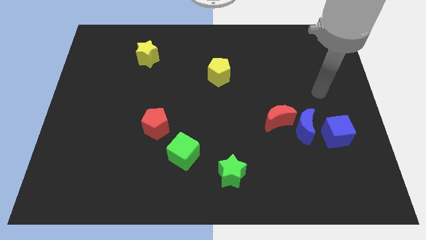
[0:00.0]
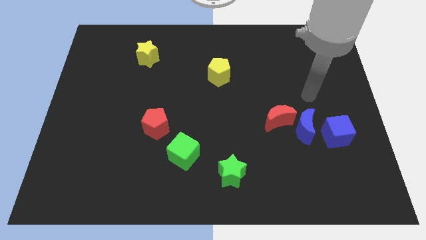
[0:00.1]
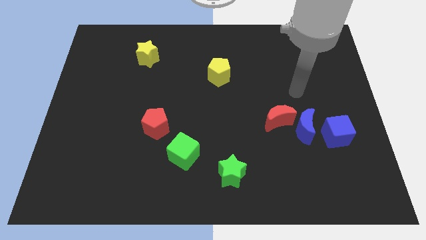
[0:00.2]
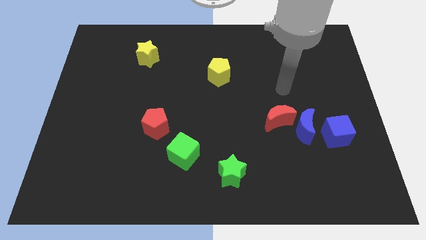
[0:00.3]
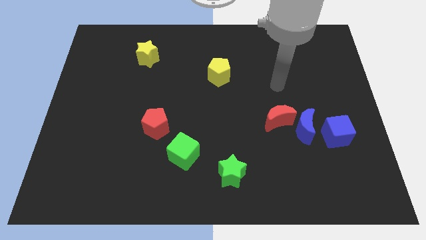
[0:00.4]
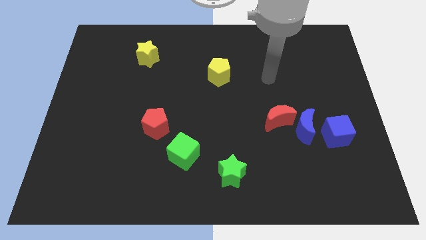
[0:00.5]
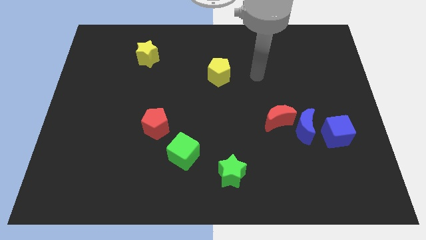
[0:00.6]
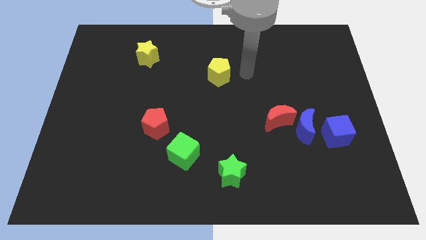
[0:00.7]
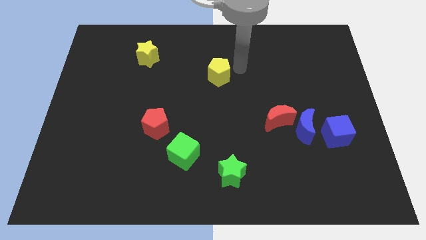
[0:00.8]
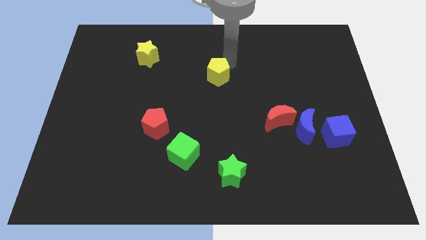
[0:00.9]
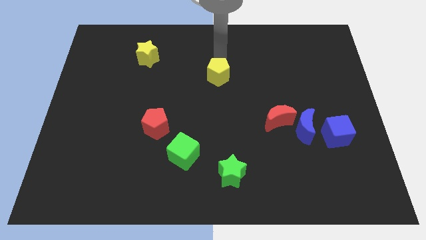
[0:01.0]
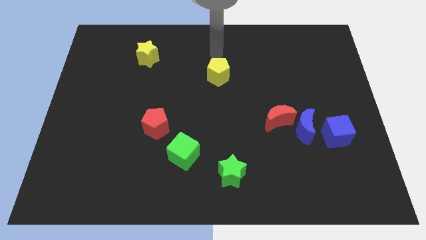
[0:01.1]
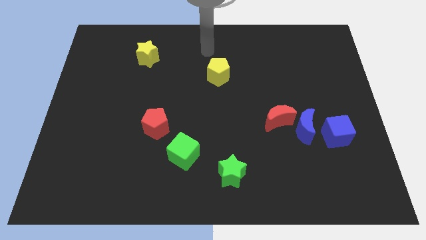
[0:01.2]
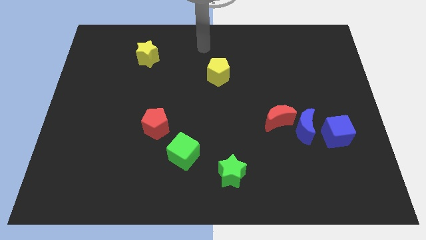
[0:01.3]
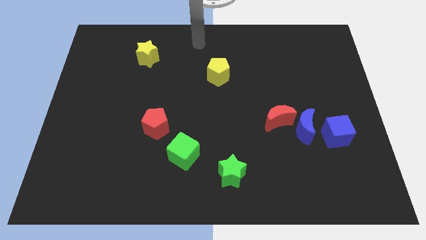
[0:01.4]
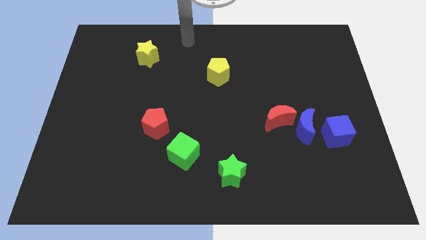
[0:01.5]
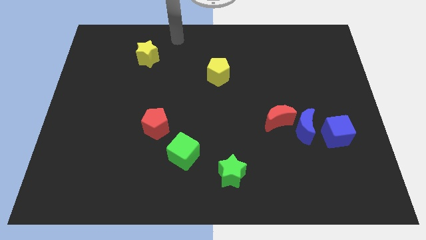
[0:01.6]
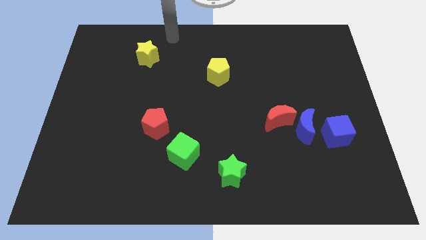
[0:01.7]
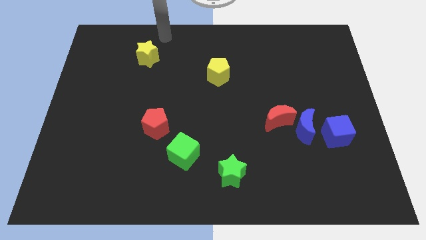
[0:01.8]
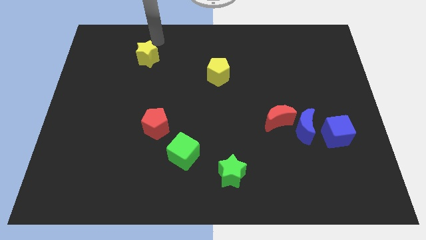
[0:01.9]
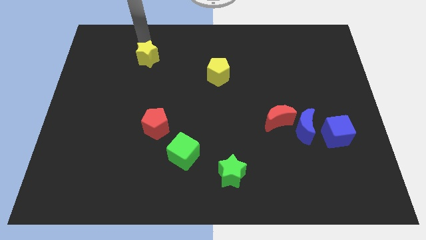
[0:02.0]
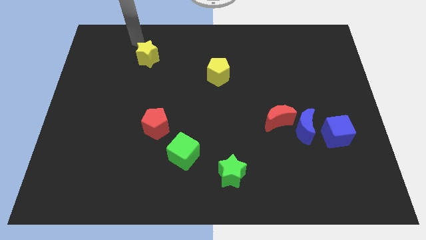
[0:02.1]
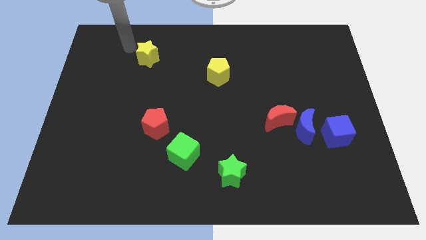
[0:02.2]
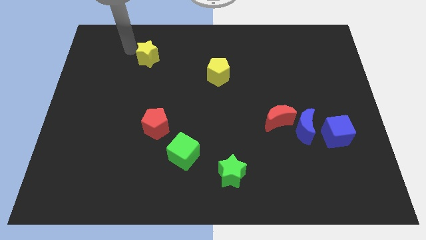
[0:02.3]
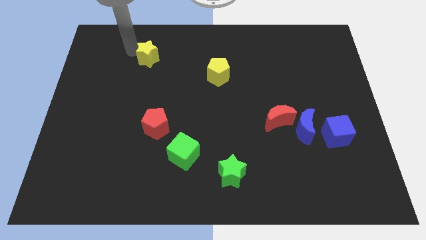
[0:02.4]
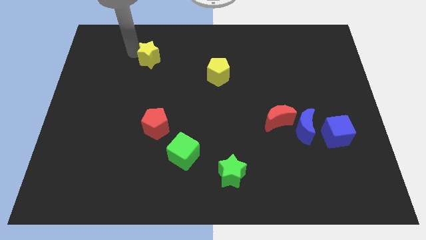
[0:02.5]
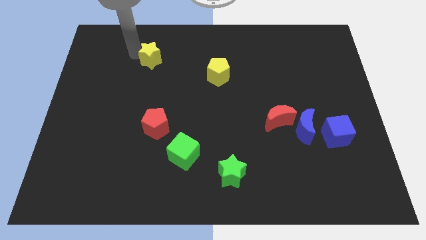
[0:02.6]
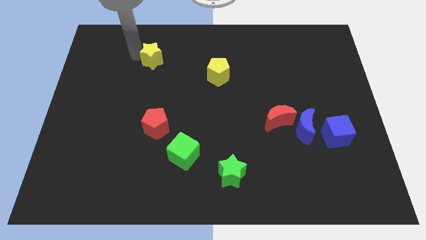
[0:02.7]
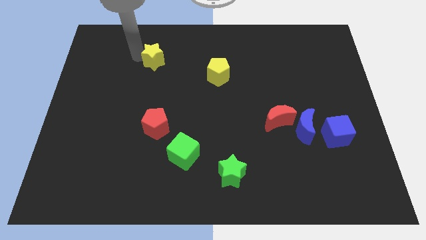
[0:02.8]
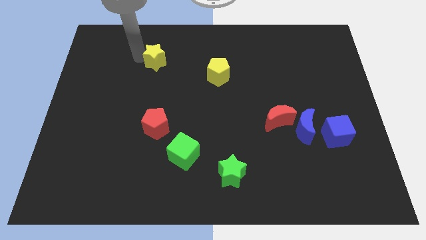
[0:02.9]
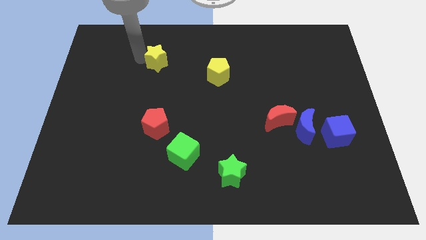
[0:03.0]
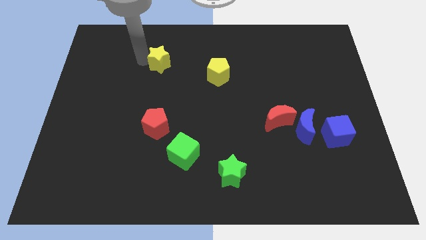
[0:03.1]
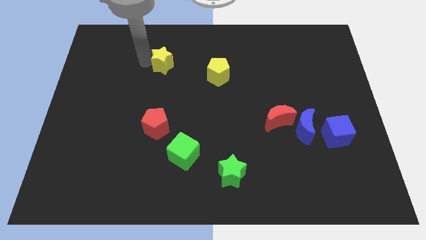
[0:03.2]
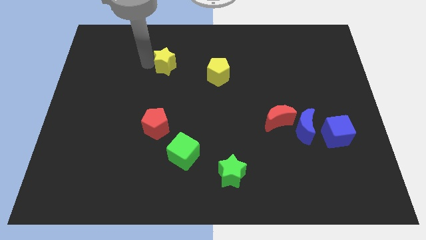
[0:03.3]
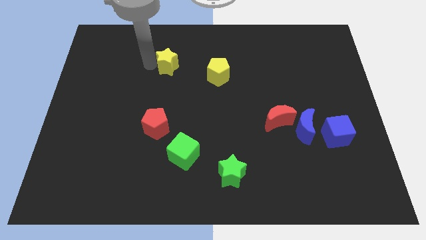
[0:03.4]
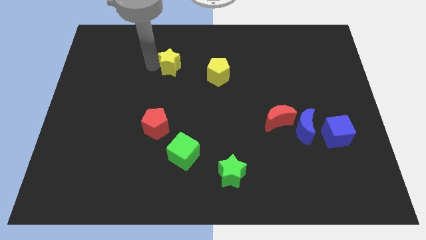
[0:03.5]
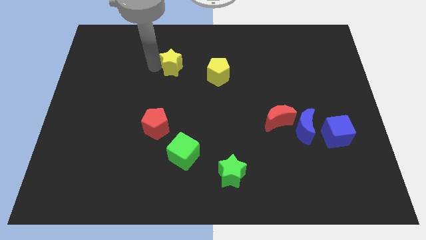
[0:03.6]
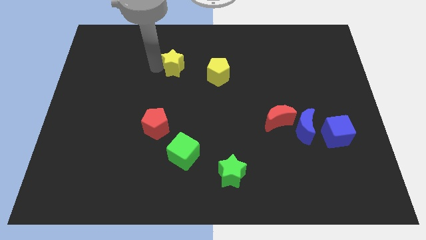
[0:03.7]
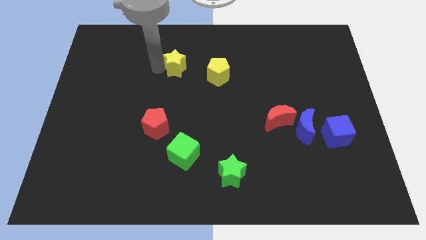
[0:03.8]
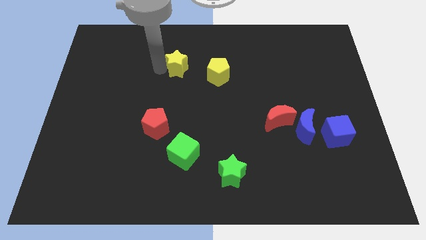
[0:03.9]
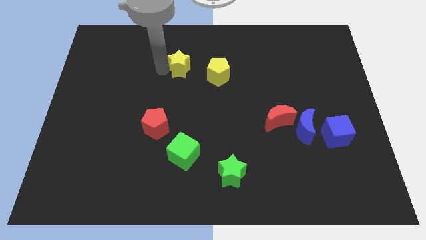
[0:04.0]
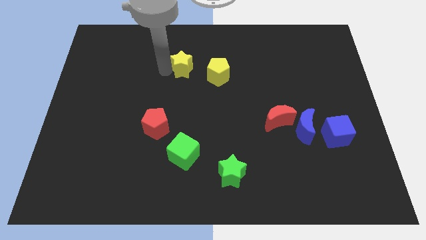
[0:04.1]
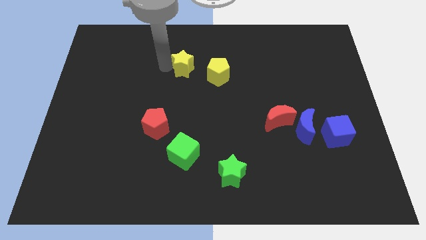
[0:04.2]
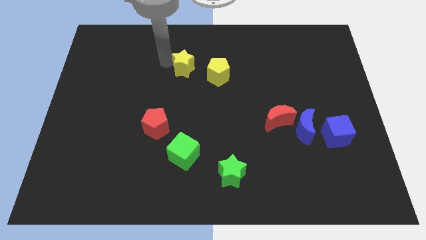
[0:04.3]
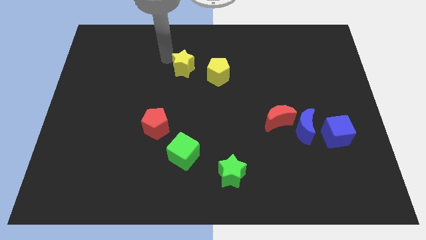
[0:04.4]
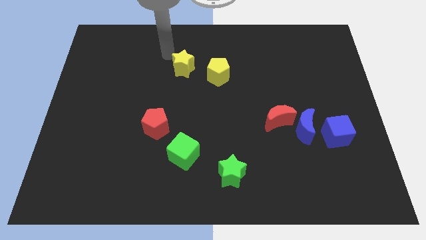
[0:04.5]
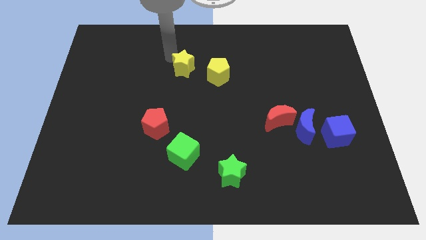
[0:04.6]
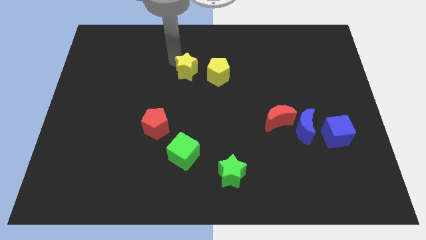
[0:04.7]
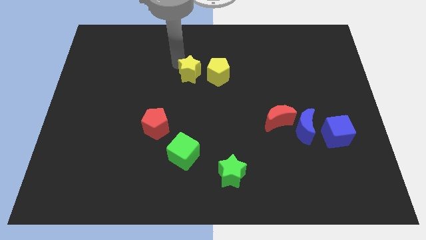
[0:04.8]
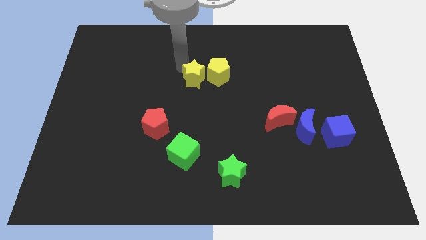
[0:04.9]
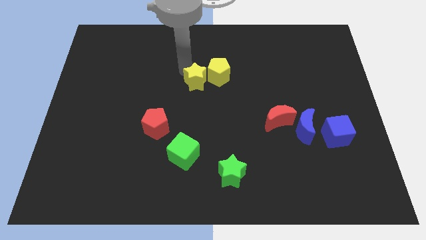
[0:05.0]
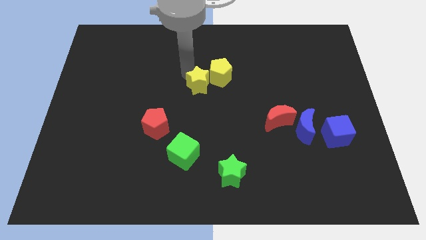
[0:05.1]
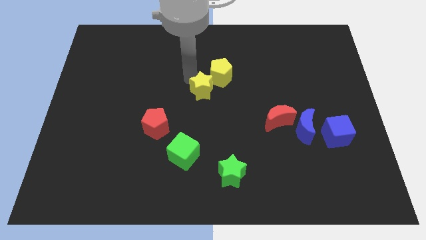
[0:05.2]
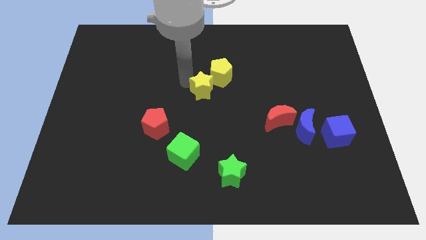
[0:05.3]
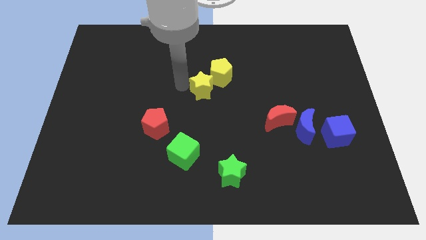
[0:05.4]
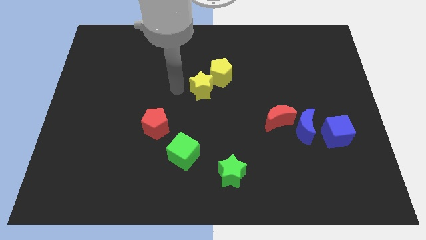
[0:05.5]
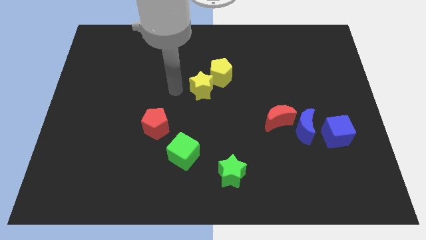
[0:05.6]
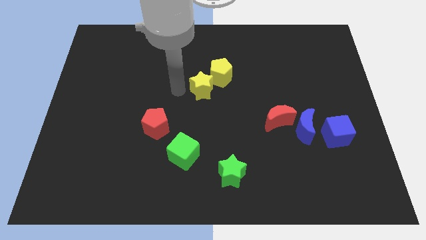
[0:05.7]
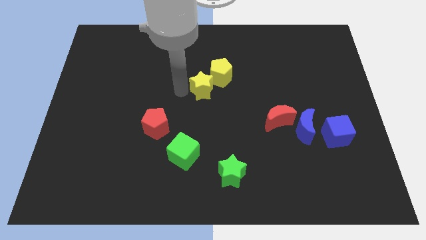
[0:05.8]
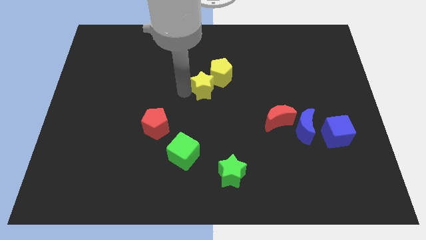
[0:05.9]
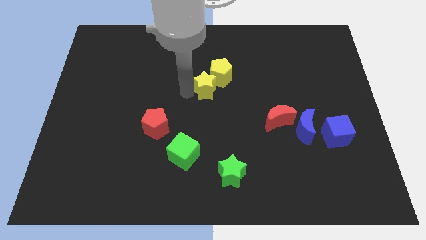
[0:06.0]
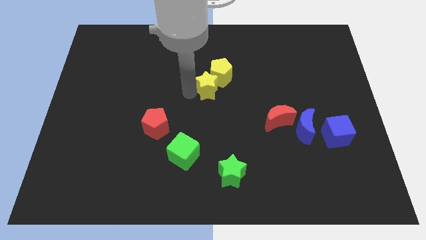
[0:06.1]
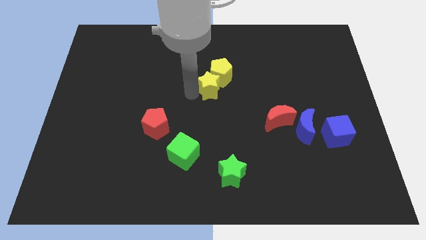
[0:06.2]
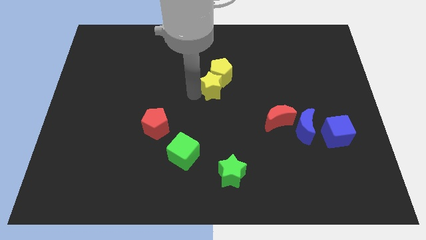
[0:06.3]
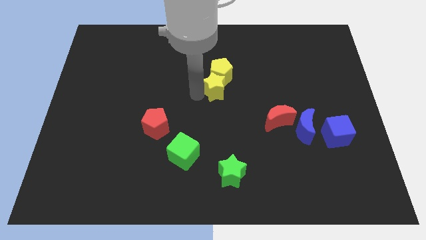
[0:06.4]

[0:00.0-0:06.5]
push the yellow star to the bottom right side of the yellow pentagon

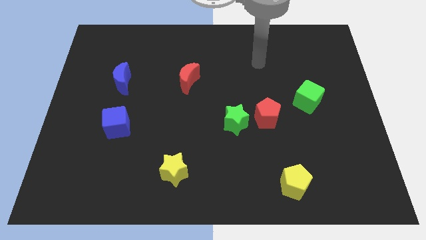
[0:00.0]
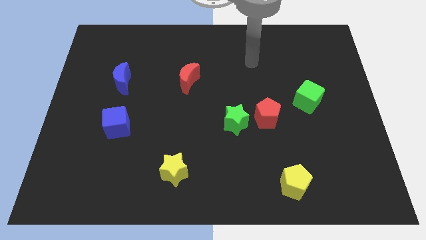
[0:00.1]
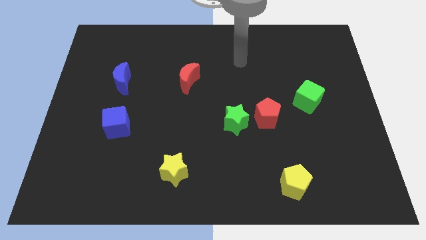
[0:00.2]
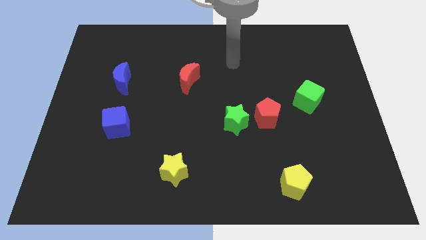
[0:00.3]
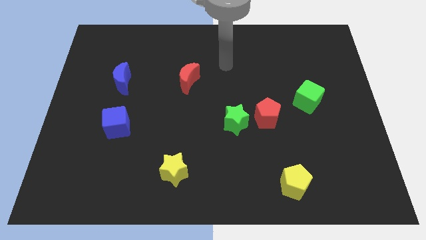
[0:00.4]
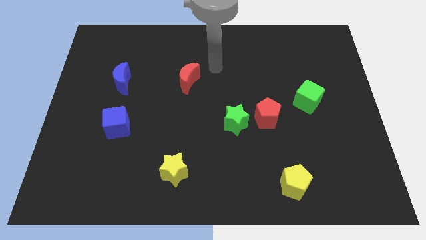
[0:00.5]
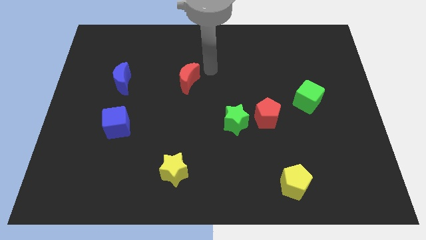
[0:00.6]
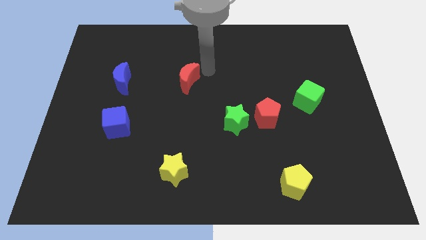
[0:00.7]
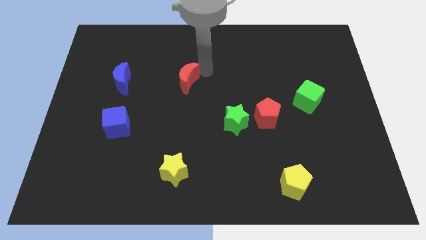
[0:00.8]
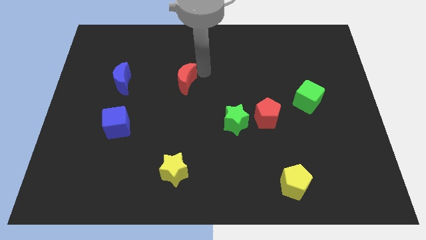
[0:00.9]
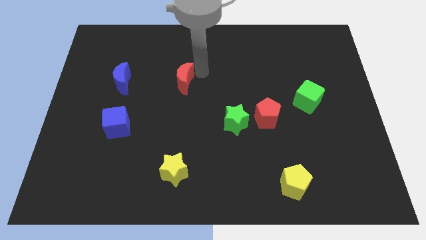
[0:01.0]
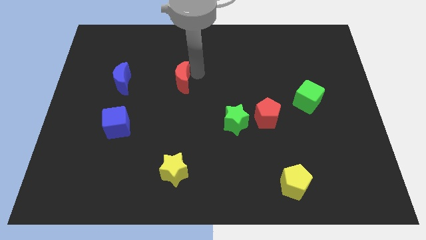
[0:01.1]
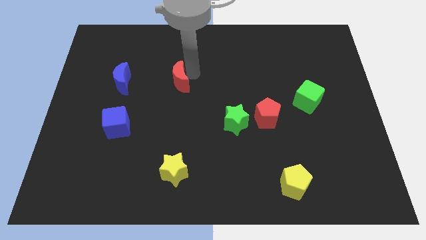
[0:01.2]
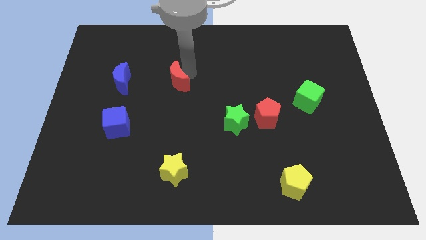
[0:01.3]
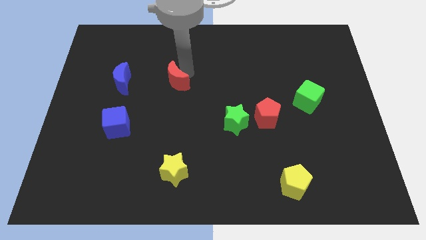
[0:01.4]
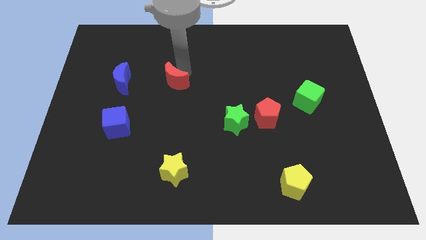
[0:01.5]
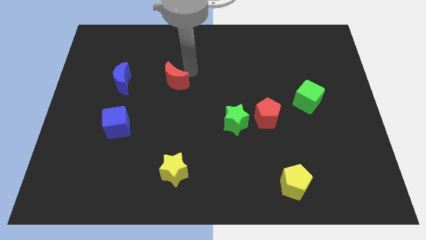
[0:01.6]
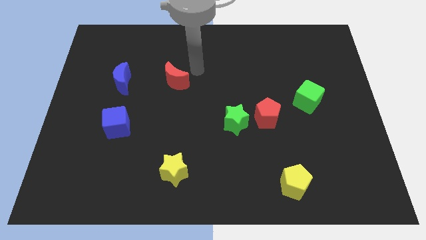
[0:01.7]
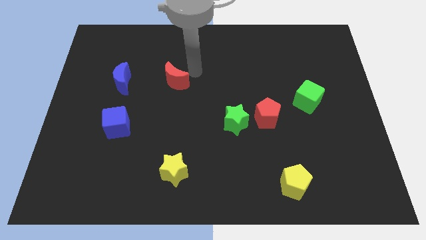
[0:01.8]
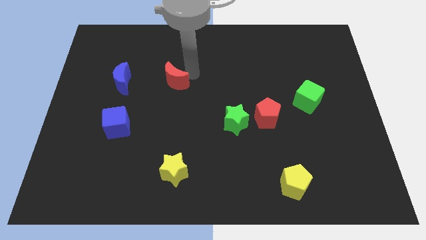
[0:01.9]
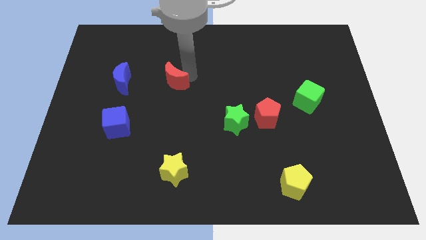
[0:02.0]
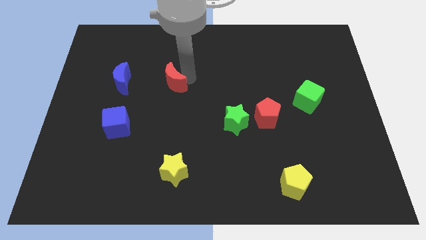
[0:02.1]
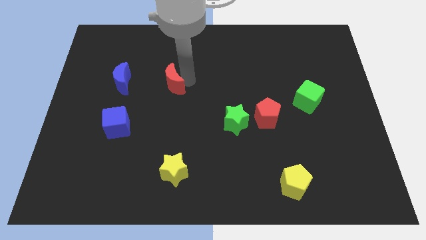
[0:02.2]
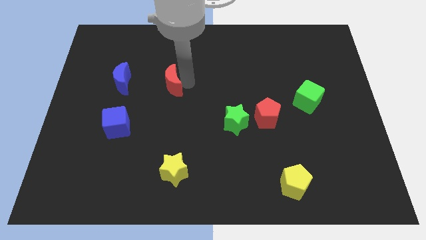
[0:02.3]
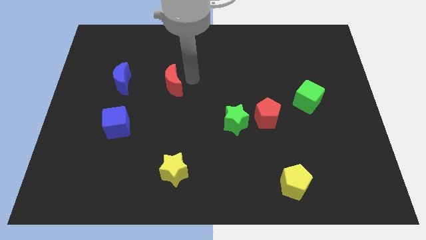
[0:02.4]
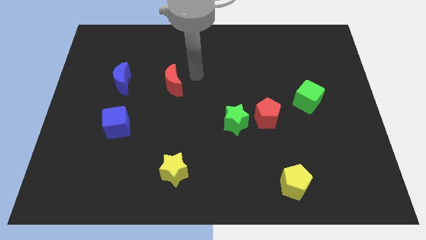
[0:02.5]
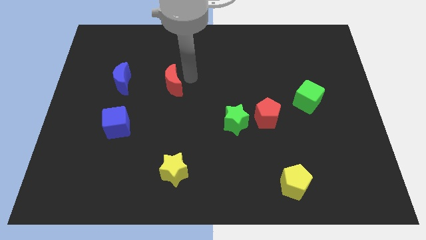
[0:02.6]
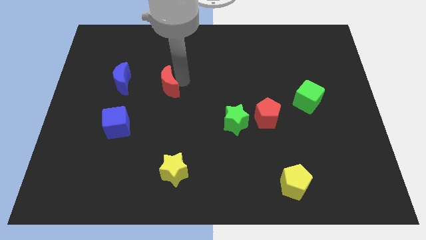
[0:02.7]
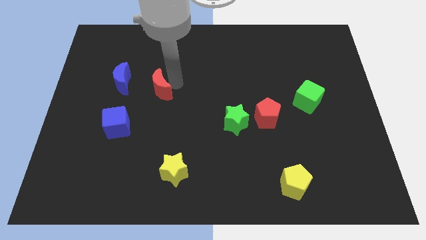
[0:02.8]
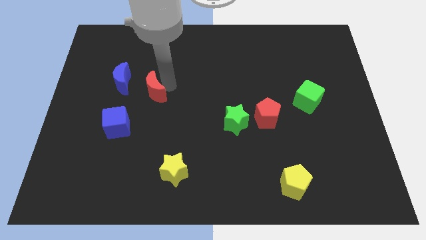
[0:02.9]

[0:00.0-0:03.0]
move the red moon to the bottom right of the blue moon
